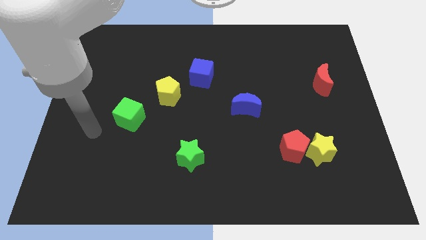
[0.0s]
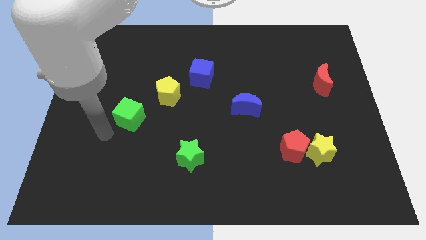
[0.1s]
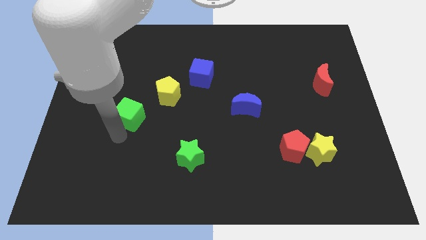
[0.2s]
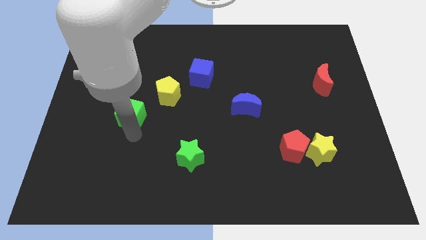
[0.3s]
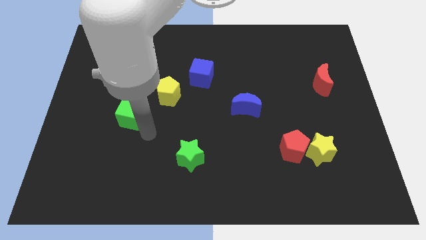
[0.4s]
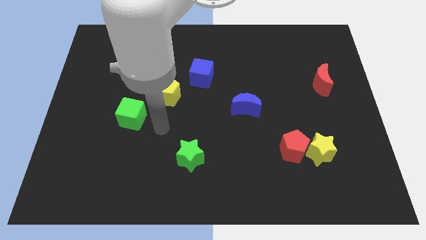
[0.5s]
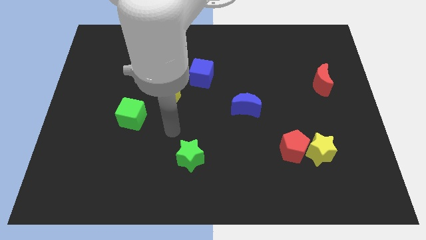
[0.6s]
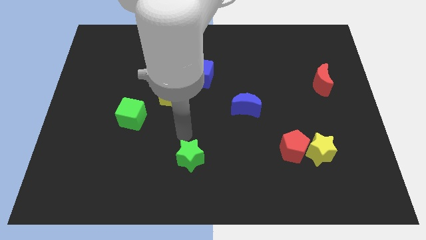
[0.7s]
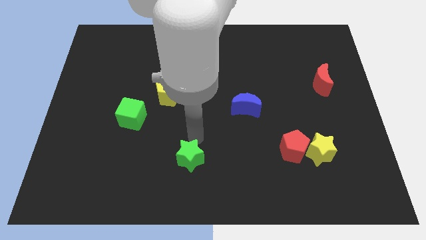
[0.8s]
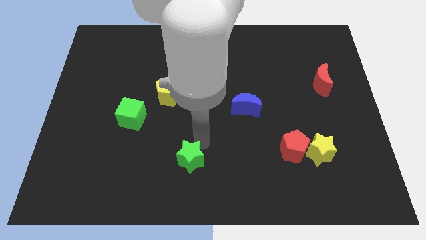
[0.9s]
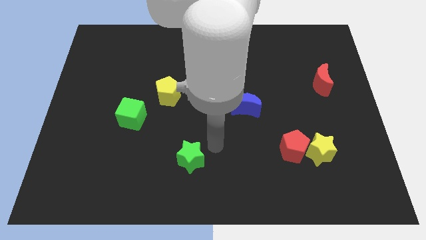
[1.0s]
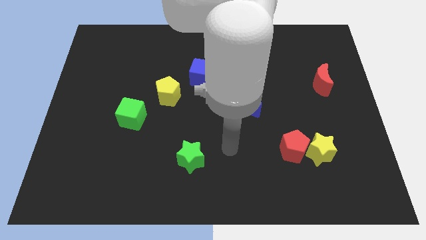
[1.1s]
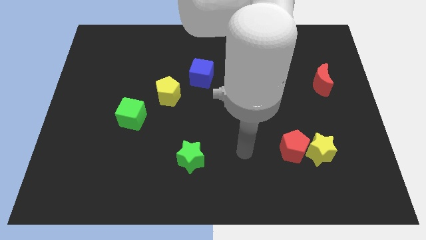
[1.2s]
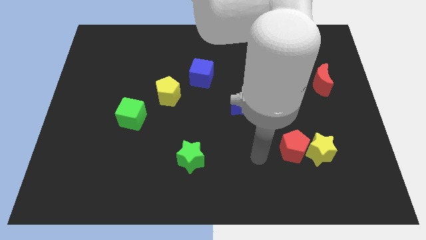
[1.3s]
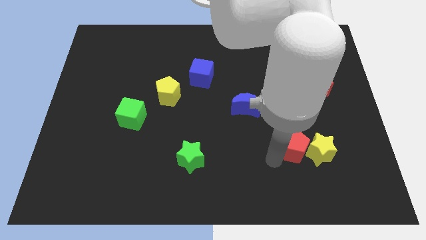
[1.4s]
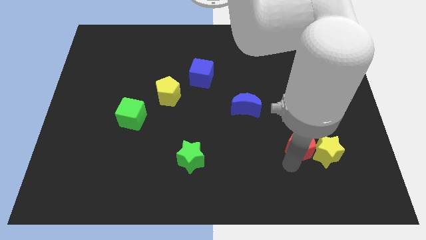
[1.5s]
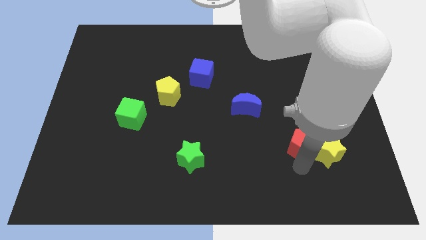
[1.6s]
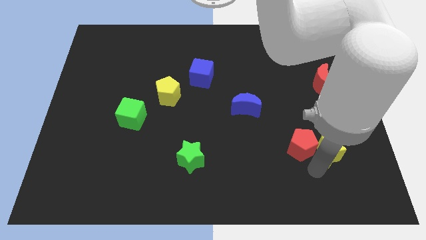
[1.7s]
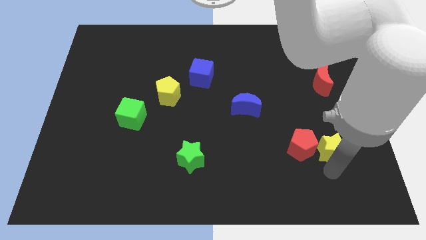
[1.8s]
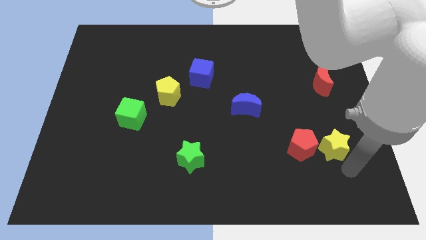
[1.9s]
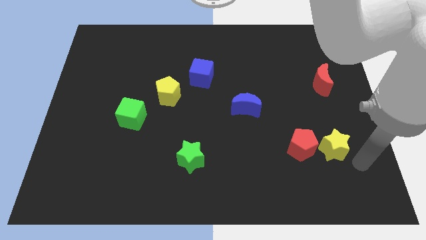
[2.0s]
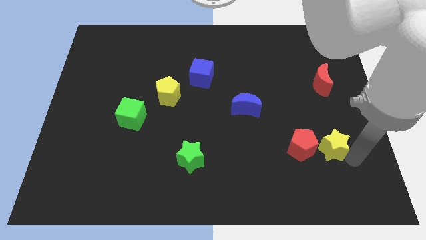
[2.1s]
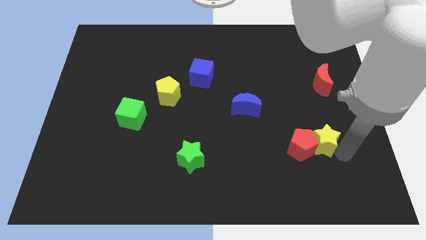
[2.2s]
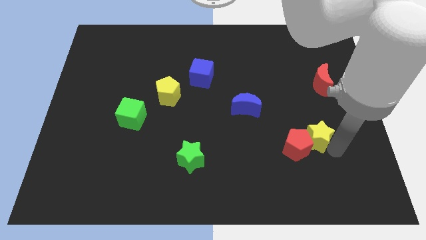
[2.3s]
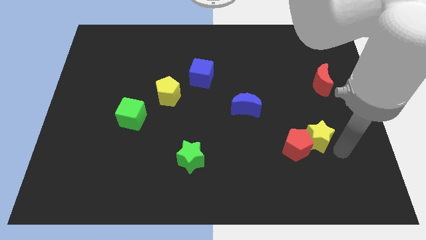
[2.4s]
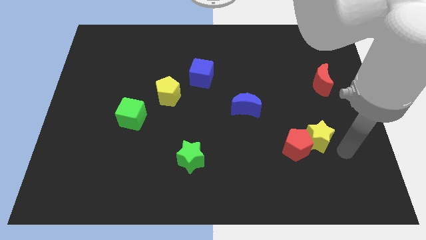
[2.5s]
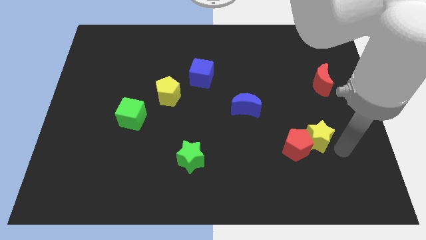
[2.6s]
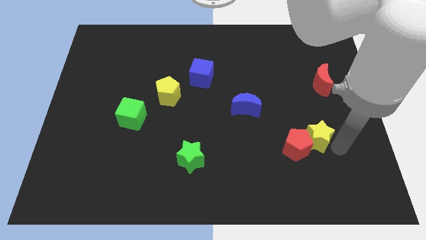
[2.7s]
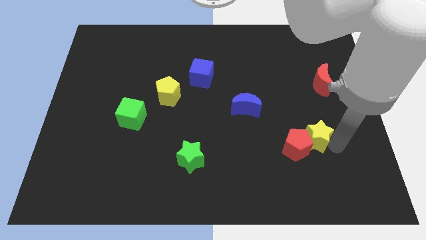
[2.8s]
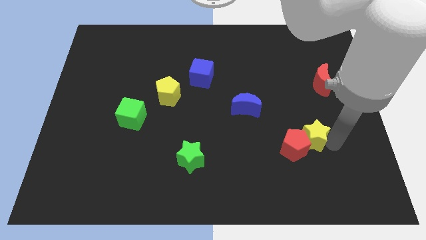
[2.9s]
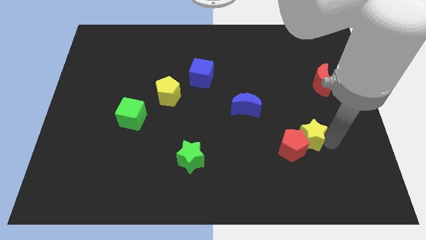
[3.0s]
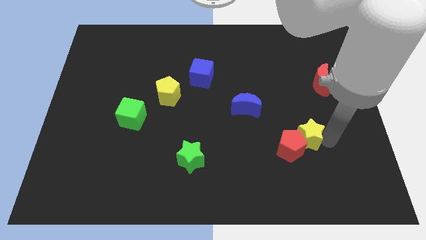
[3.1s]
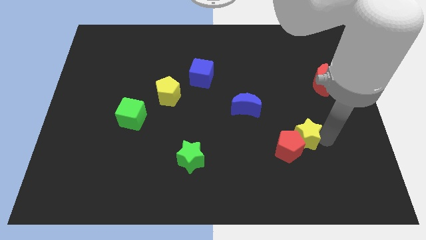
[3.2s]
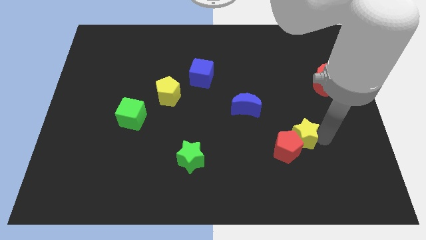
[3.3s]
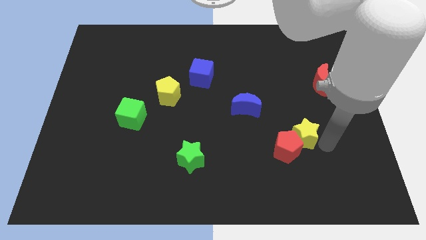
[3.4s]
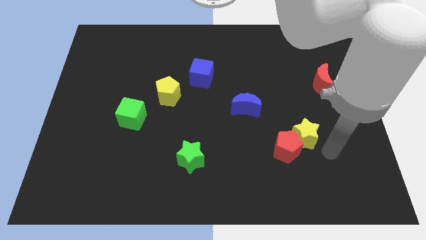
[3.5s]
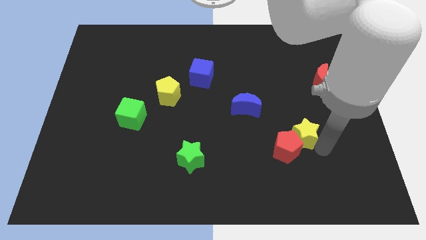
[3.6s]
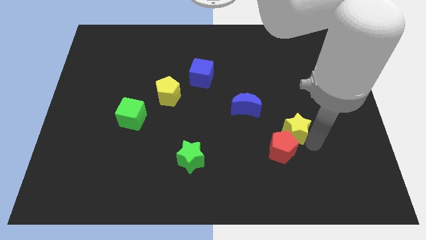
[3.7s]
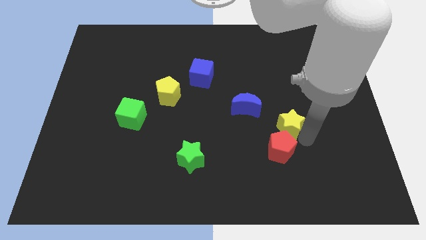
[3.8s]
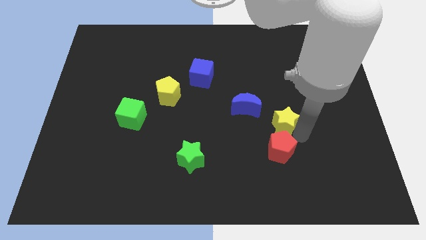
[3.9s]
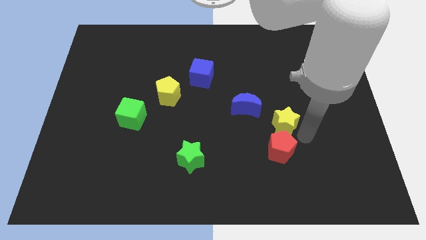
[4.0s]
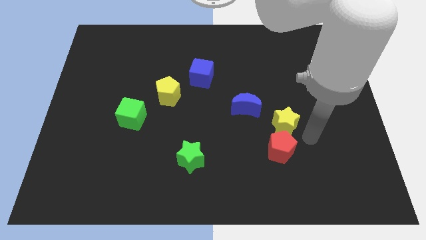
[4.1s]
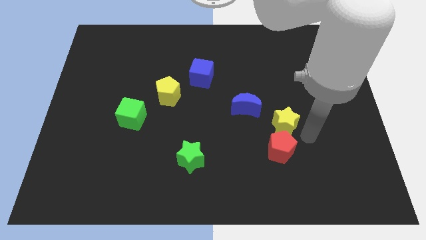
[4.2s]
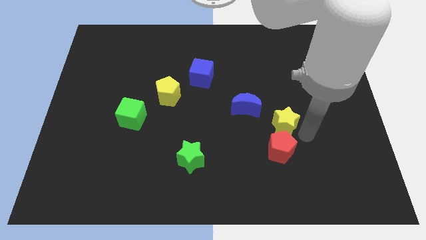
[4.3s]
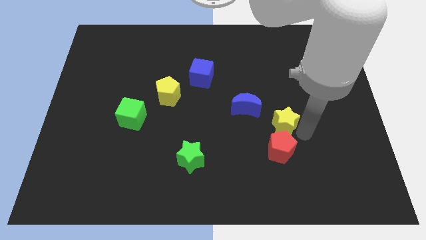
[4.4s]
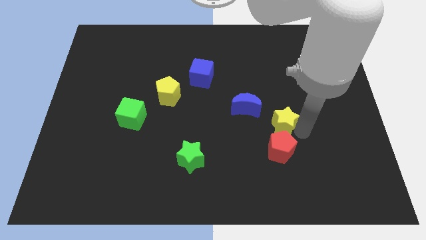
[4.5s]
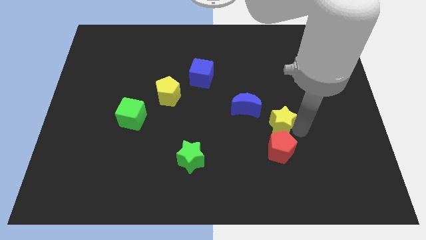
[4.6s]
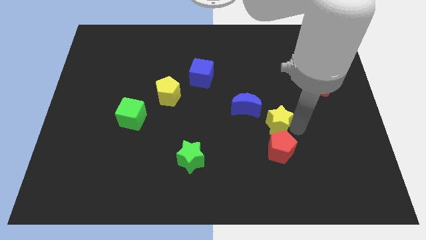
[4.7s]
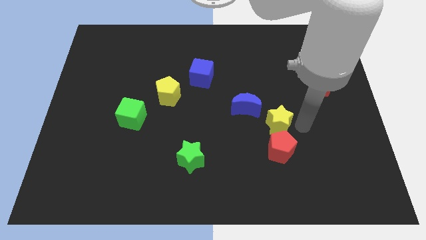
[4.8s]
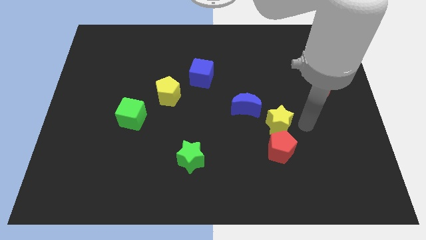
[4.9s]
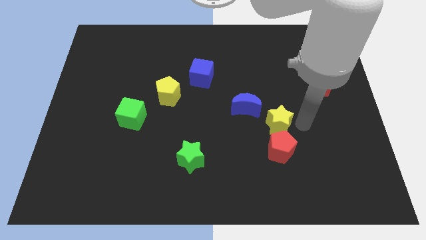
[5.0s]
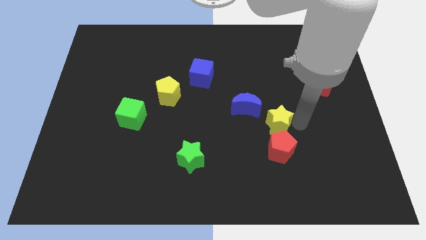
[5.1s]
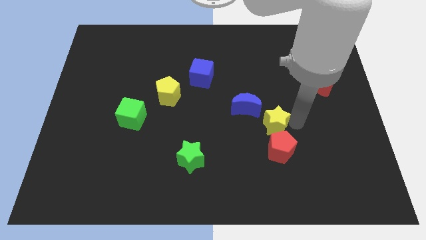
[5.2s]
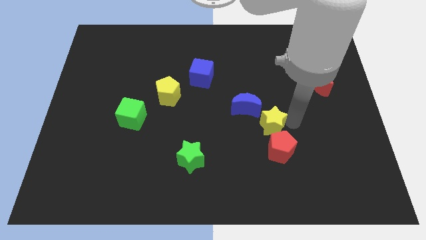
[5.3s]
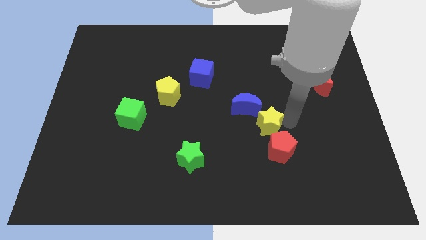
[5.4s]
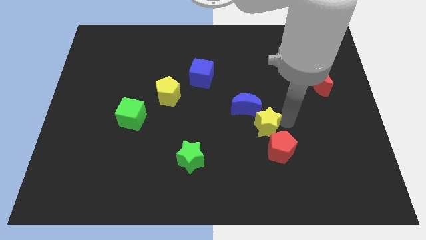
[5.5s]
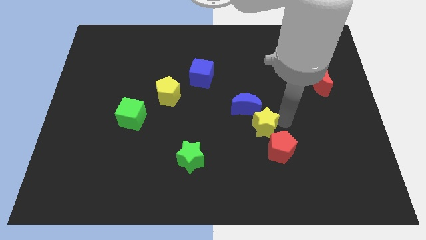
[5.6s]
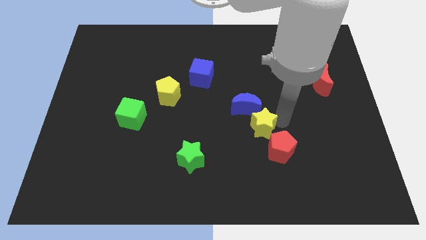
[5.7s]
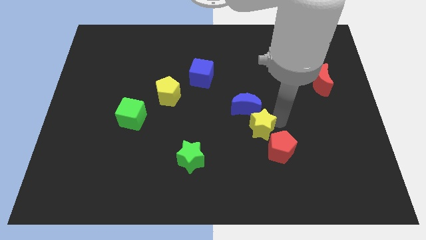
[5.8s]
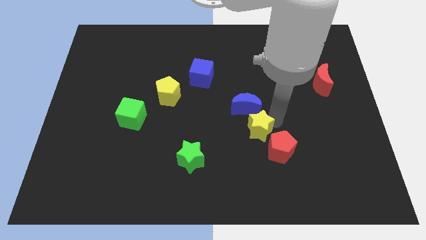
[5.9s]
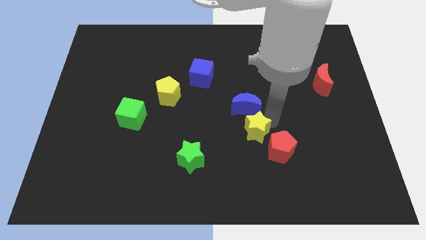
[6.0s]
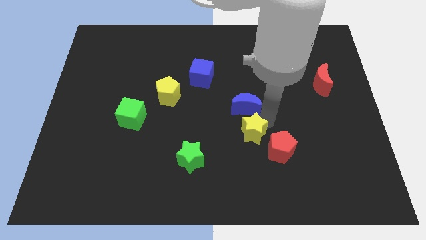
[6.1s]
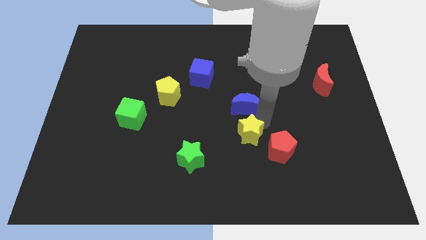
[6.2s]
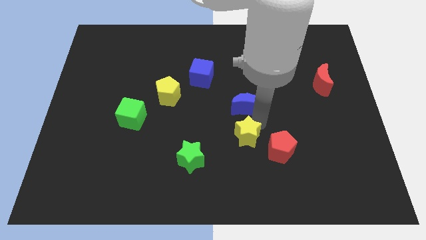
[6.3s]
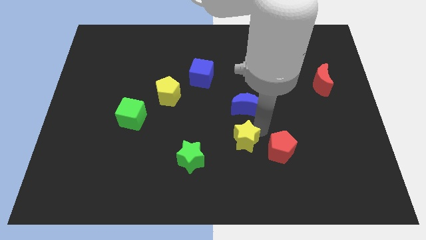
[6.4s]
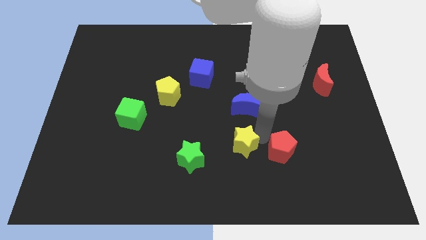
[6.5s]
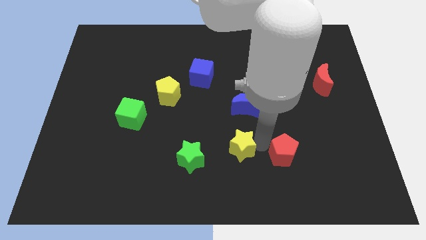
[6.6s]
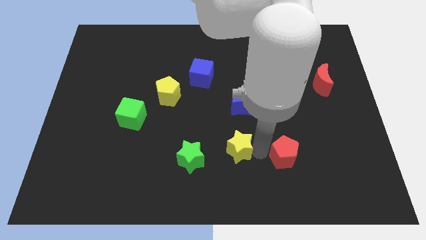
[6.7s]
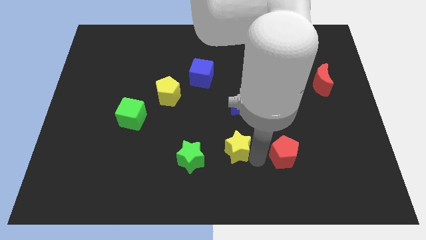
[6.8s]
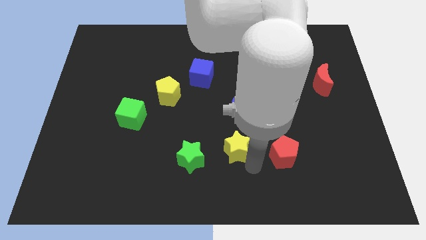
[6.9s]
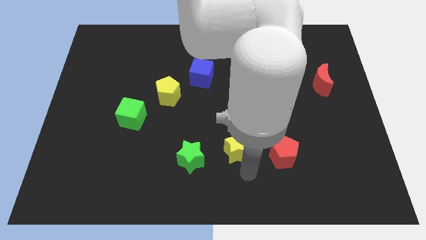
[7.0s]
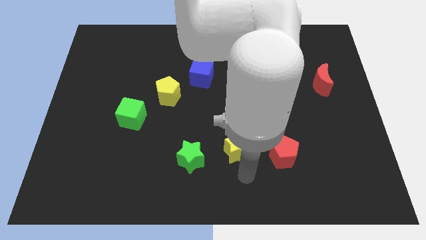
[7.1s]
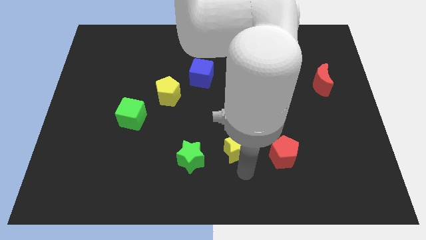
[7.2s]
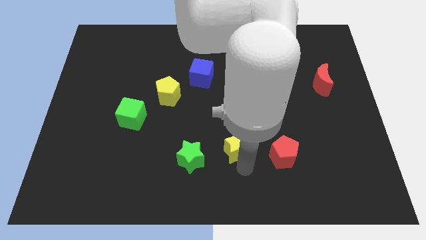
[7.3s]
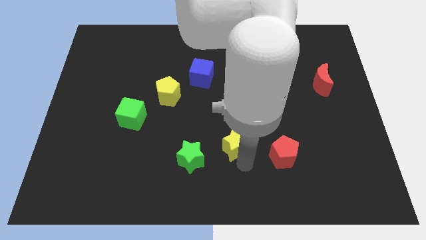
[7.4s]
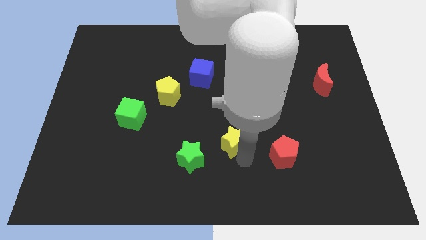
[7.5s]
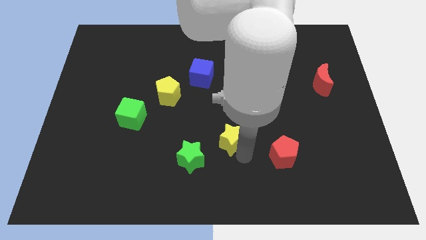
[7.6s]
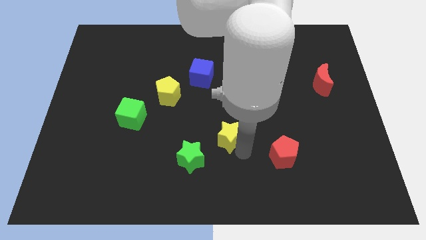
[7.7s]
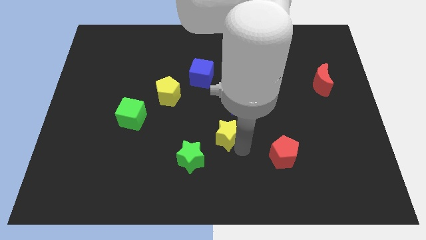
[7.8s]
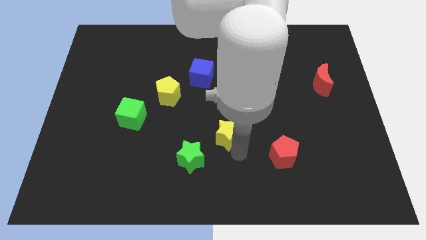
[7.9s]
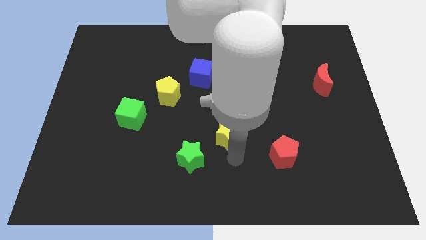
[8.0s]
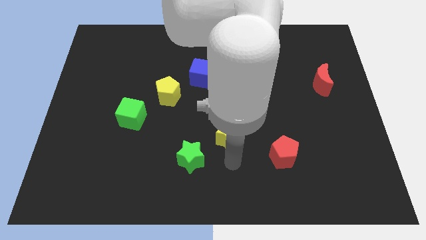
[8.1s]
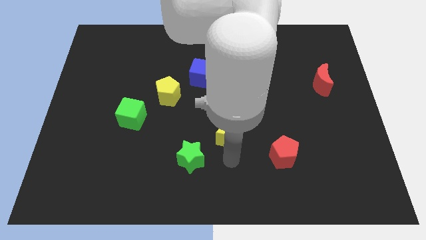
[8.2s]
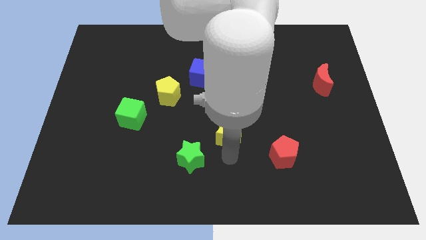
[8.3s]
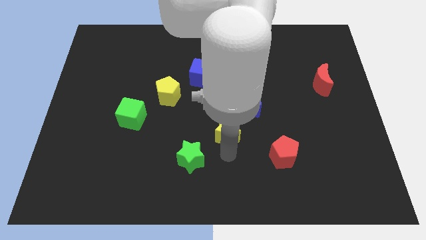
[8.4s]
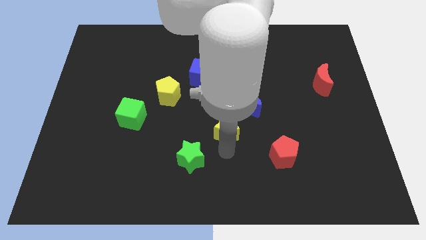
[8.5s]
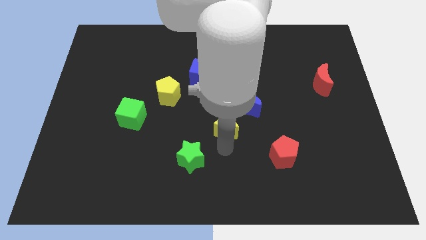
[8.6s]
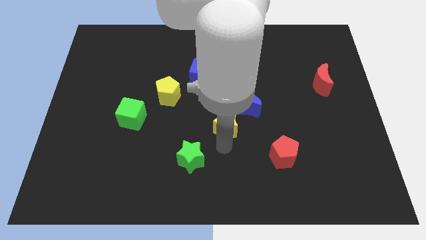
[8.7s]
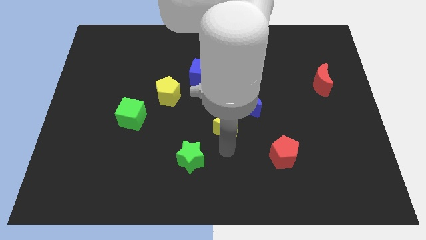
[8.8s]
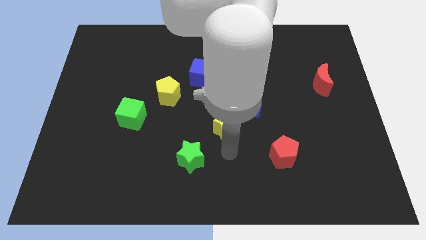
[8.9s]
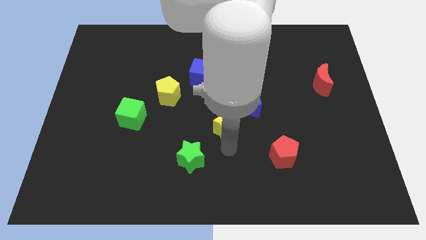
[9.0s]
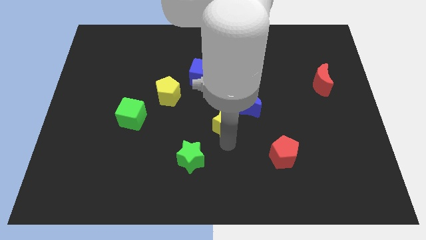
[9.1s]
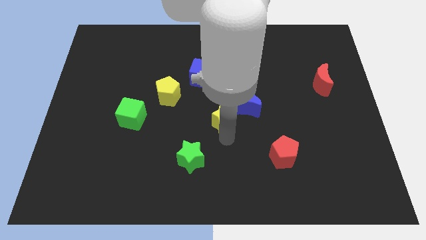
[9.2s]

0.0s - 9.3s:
push the yellow star left of the blue moon
